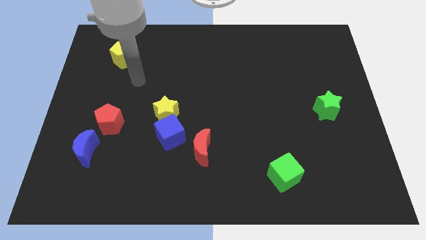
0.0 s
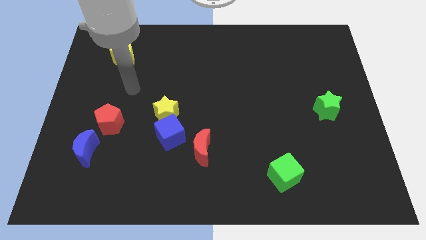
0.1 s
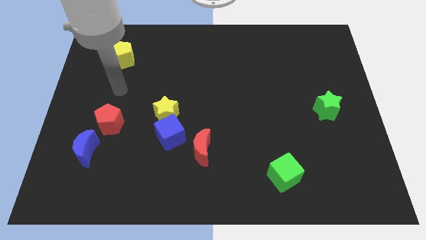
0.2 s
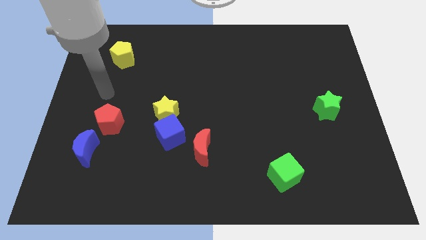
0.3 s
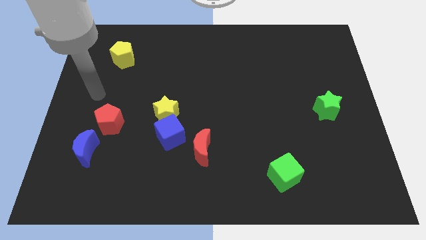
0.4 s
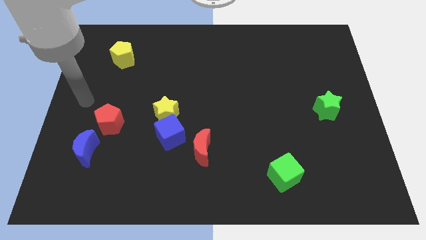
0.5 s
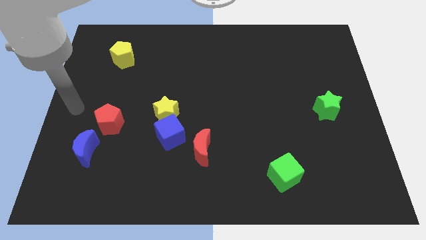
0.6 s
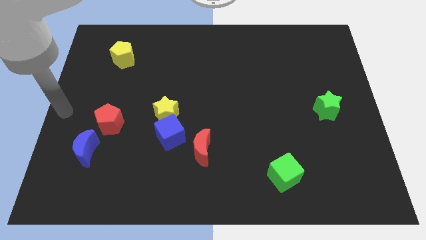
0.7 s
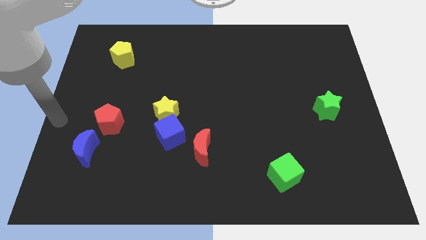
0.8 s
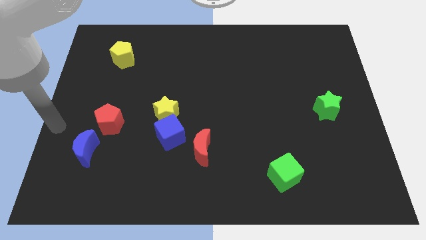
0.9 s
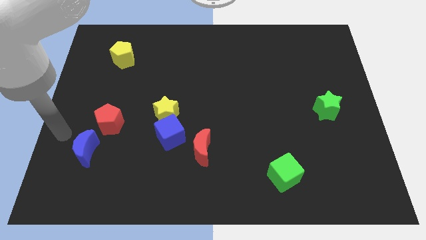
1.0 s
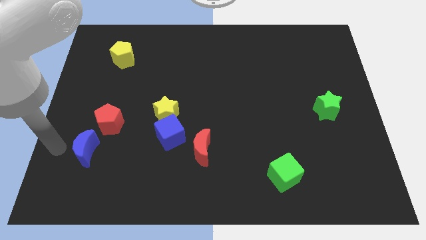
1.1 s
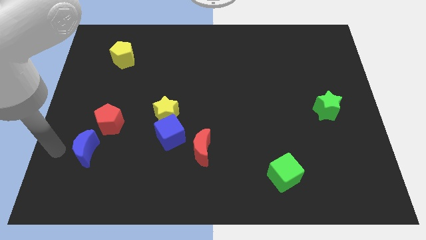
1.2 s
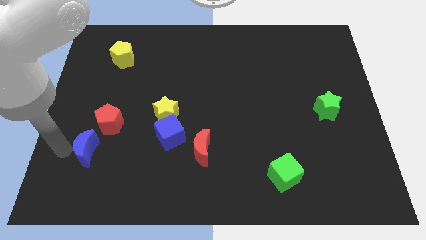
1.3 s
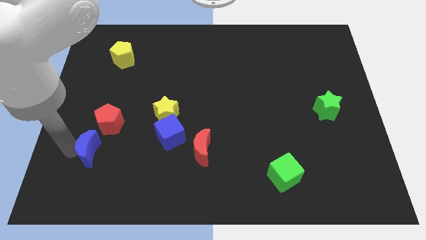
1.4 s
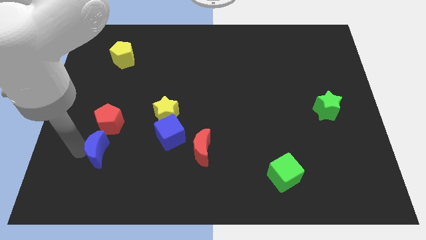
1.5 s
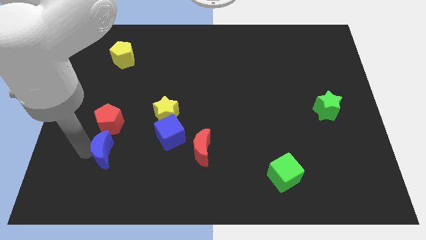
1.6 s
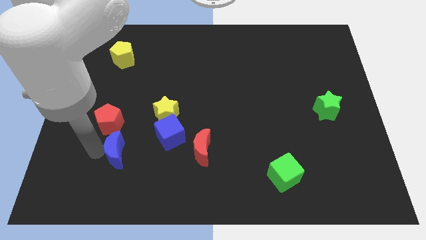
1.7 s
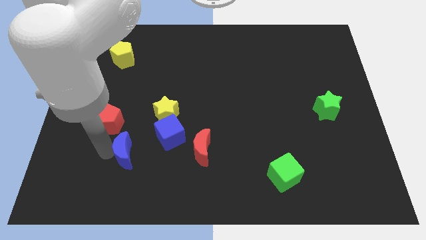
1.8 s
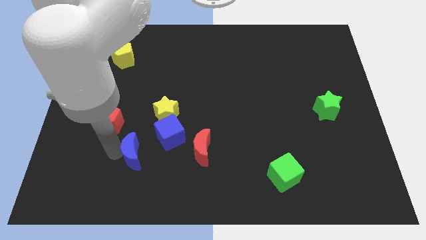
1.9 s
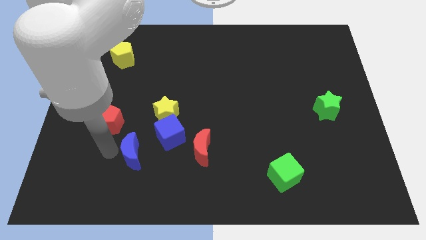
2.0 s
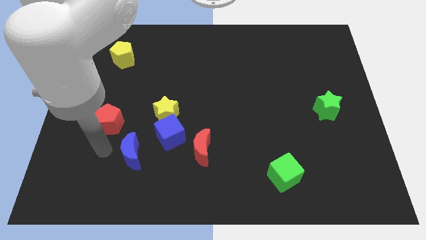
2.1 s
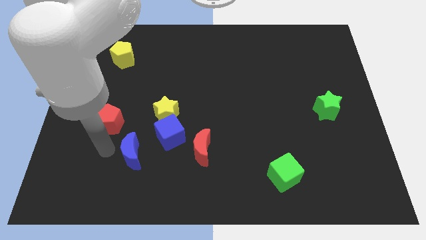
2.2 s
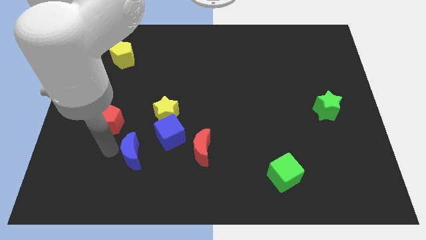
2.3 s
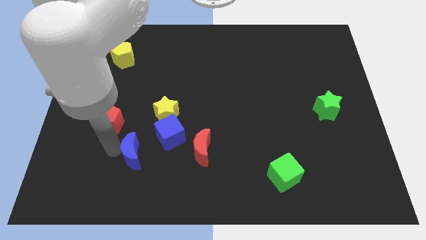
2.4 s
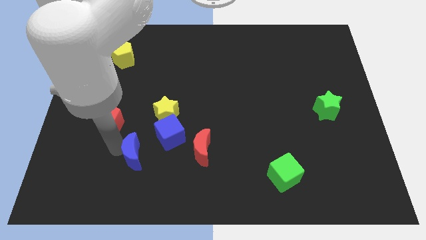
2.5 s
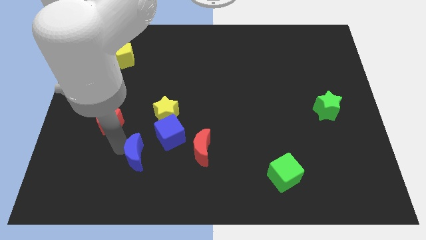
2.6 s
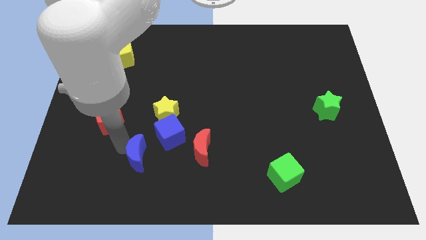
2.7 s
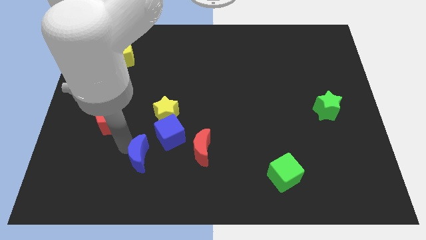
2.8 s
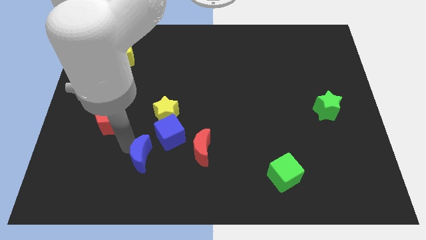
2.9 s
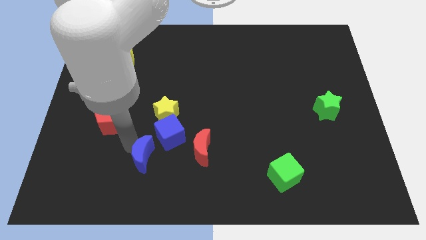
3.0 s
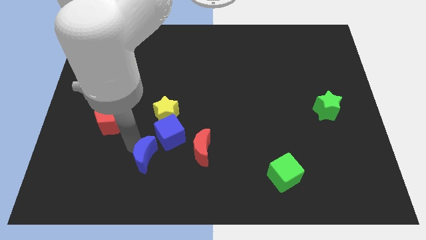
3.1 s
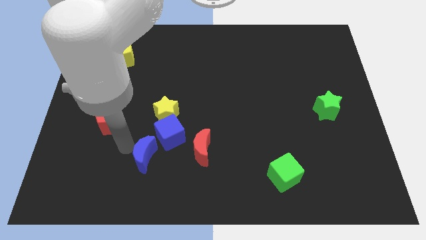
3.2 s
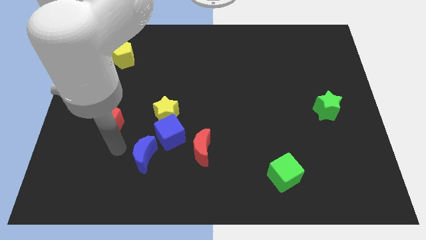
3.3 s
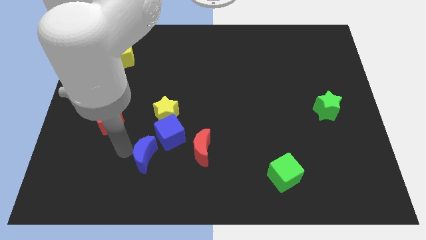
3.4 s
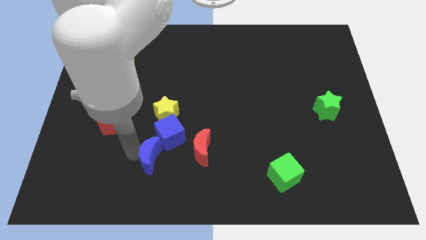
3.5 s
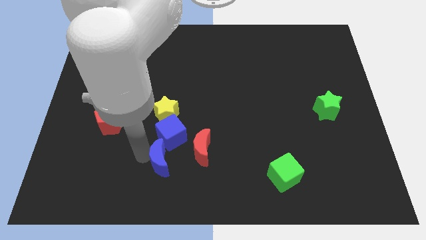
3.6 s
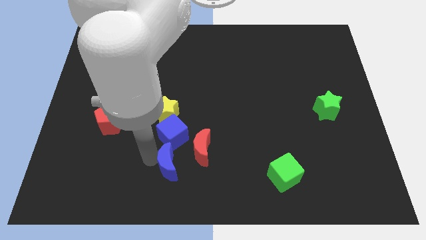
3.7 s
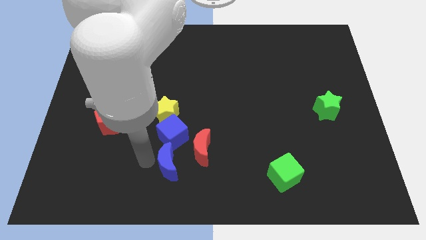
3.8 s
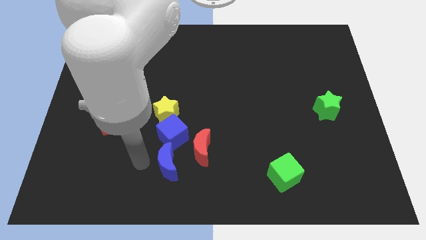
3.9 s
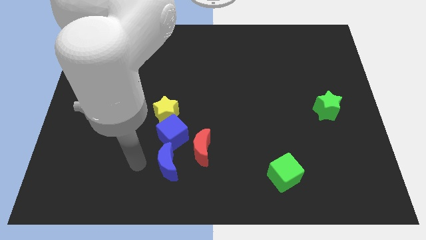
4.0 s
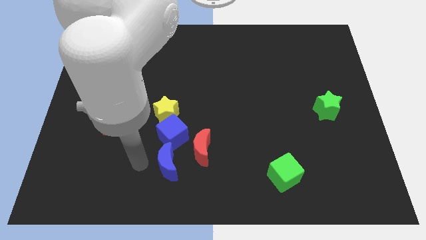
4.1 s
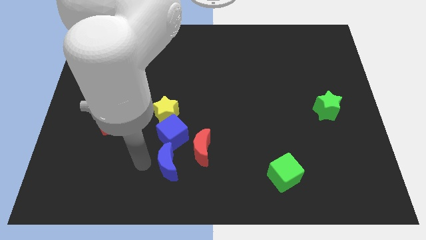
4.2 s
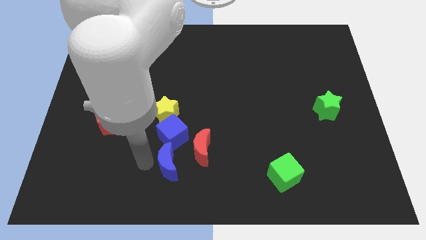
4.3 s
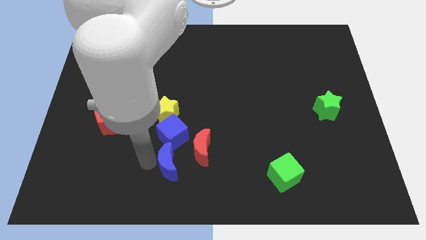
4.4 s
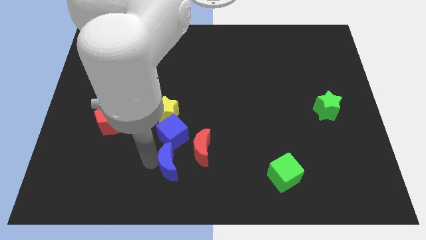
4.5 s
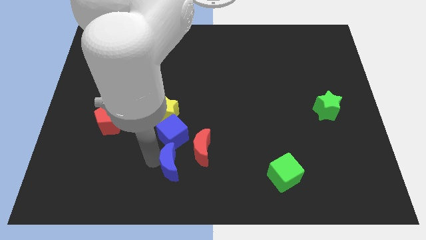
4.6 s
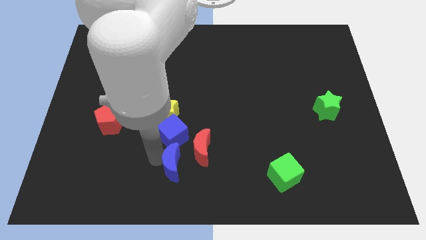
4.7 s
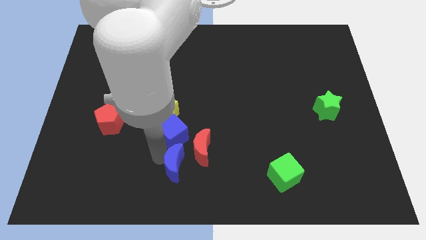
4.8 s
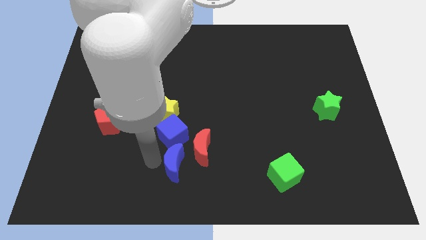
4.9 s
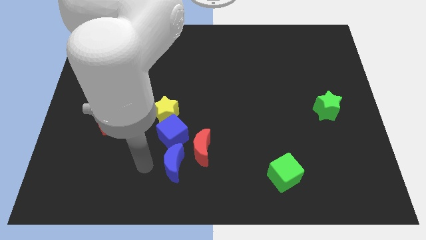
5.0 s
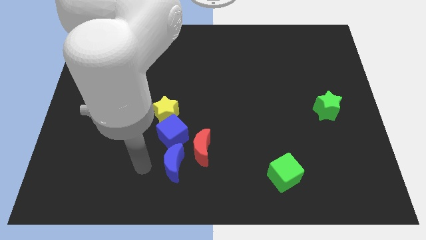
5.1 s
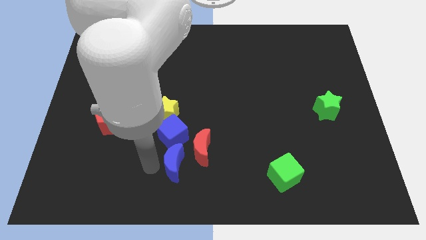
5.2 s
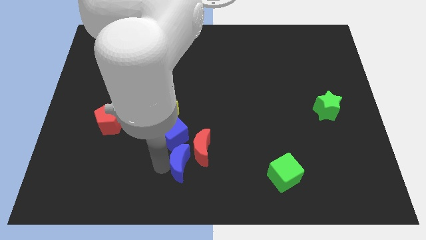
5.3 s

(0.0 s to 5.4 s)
move the blue moon right

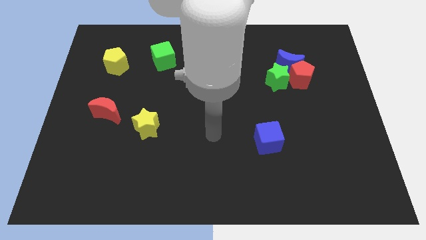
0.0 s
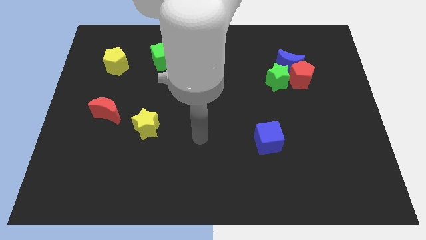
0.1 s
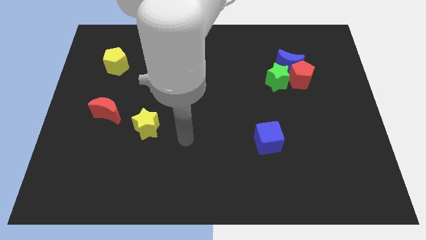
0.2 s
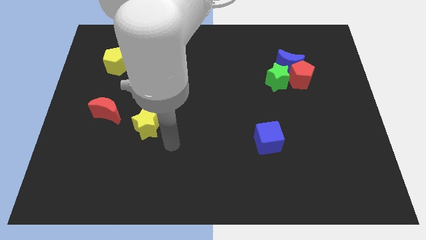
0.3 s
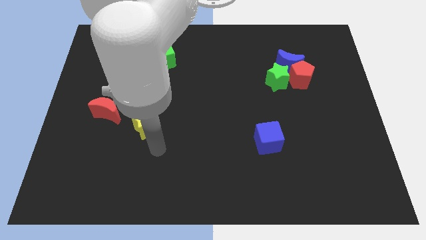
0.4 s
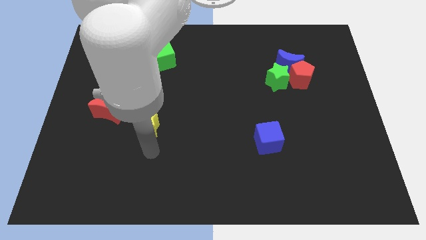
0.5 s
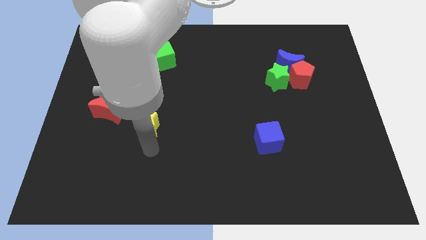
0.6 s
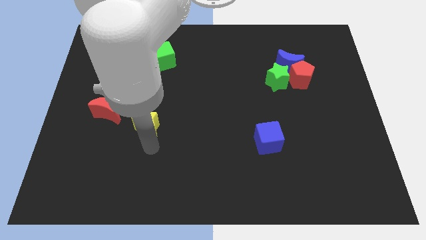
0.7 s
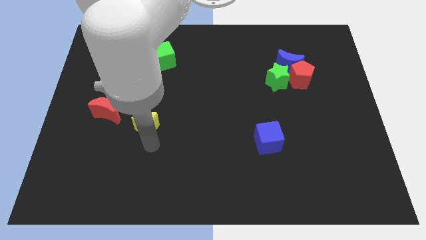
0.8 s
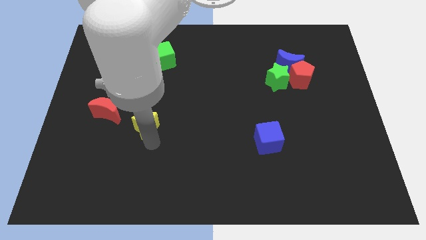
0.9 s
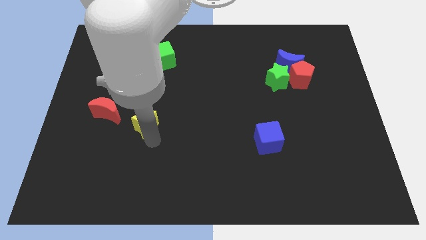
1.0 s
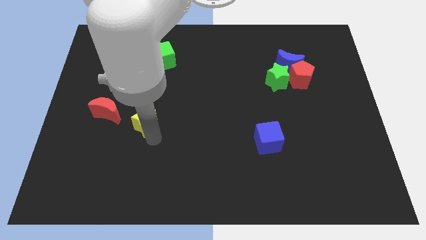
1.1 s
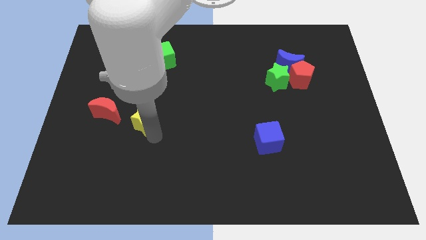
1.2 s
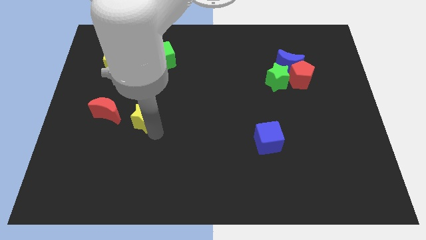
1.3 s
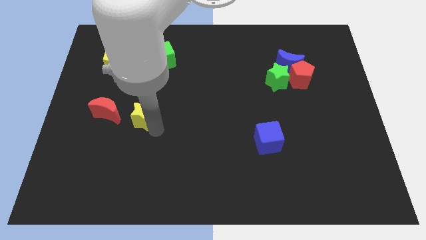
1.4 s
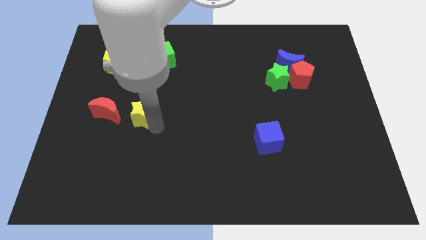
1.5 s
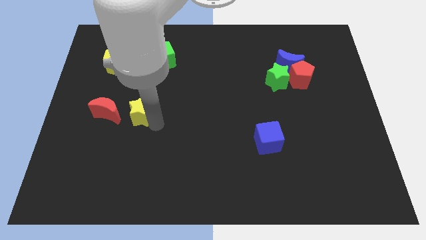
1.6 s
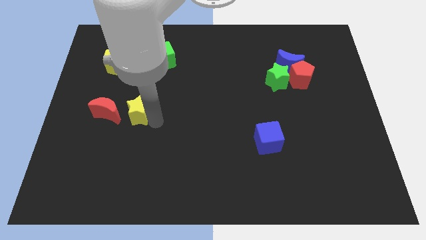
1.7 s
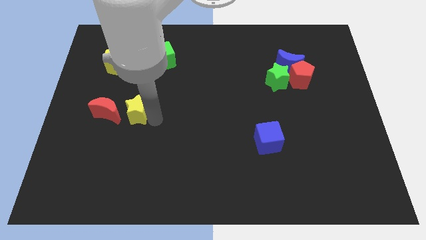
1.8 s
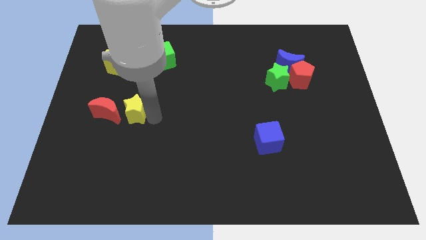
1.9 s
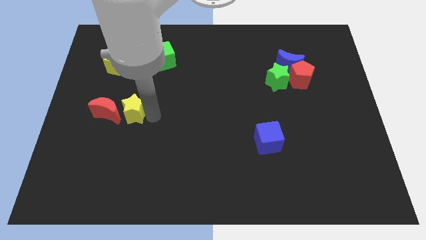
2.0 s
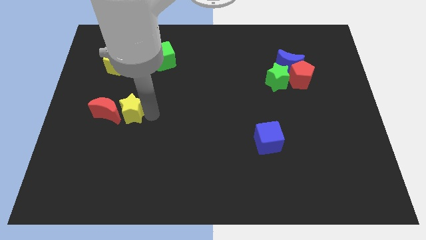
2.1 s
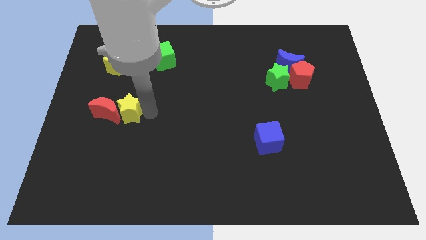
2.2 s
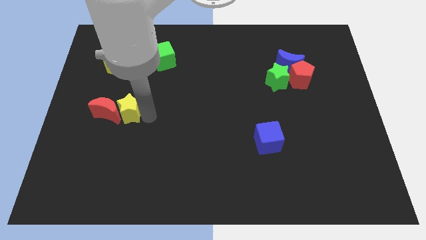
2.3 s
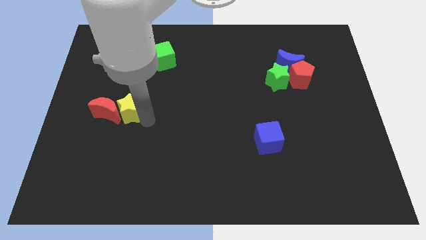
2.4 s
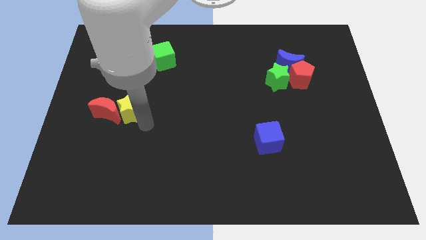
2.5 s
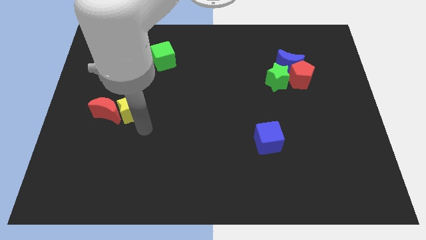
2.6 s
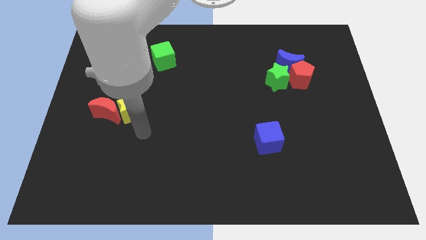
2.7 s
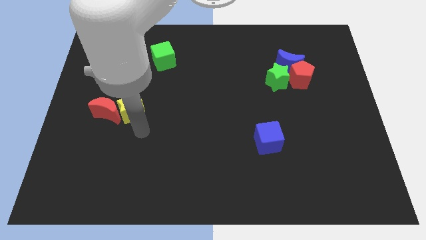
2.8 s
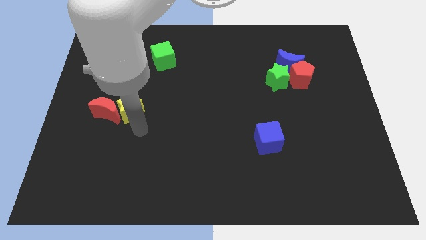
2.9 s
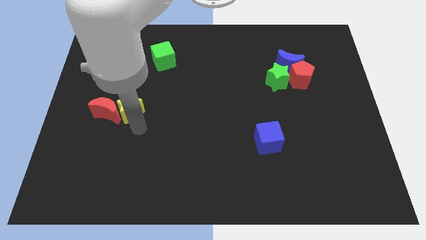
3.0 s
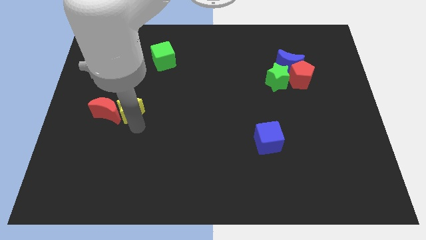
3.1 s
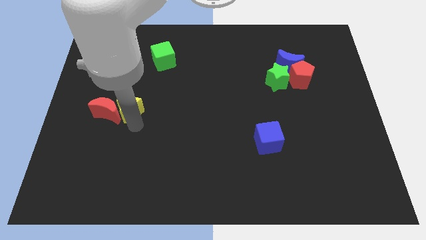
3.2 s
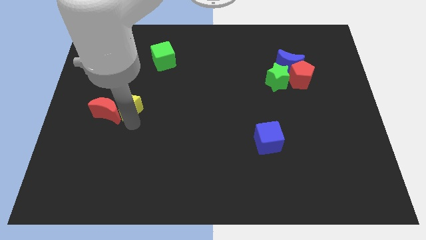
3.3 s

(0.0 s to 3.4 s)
push the yellow star a little bit upwards and to the left
